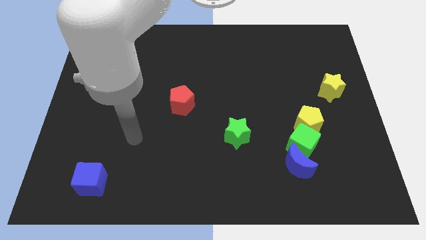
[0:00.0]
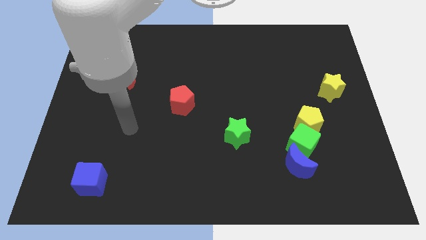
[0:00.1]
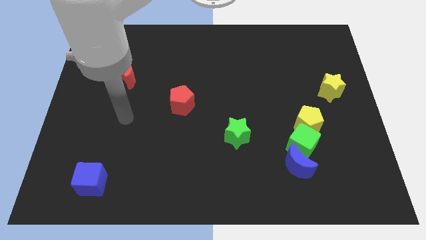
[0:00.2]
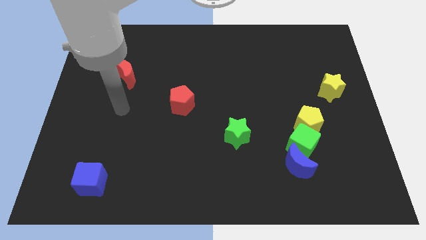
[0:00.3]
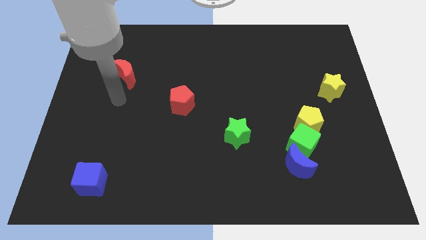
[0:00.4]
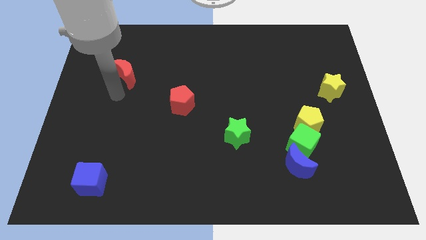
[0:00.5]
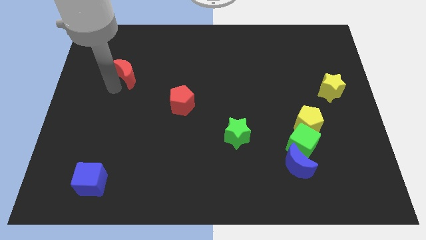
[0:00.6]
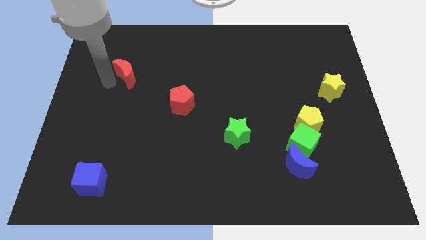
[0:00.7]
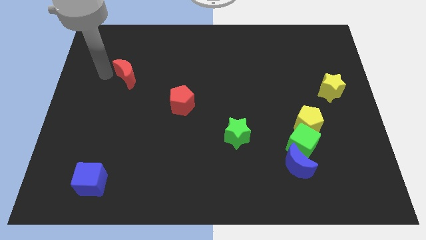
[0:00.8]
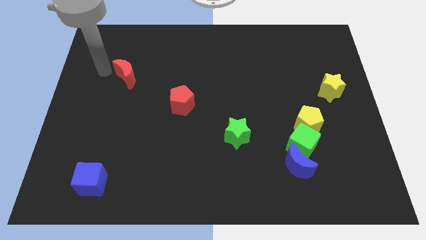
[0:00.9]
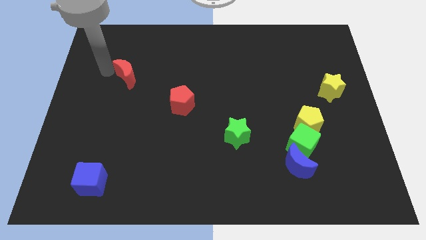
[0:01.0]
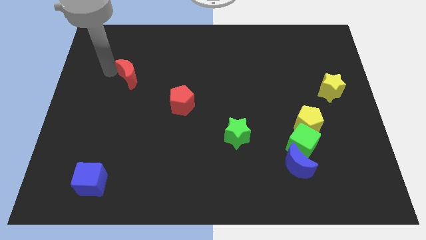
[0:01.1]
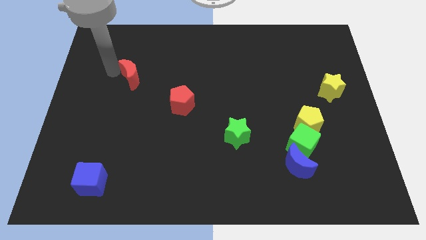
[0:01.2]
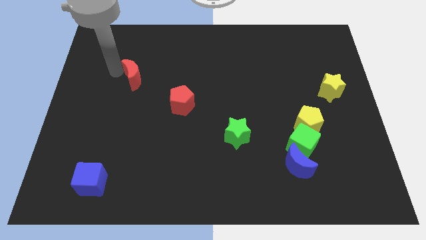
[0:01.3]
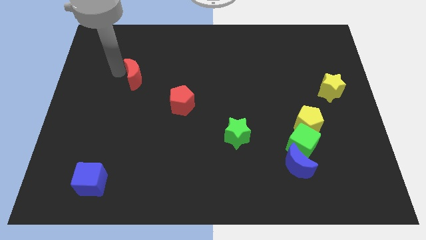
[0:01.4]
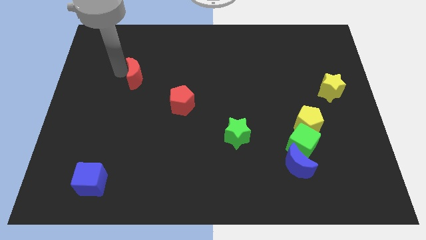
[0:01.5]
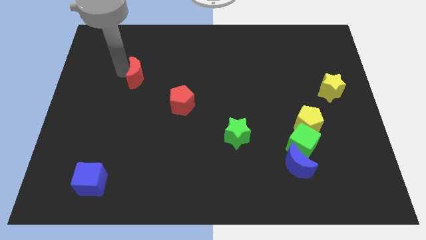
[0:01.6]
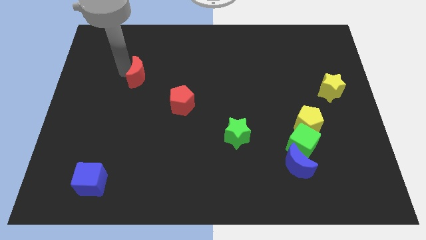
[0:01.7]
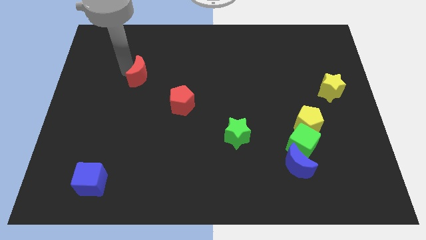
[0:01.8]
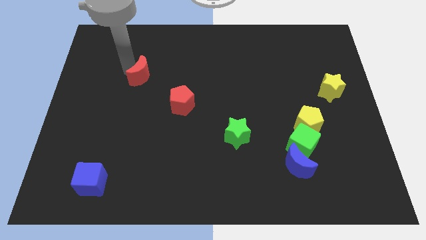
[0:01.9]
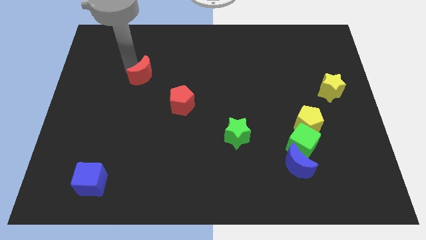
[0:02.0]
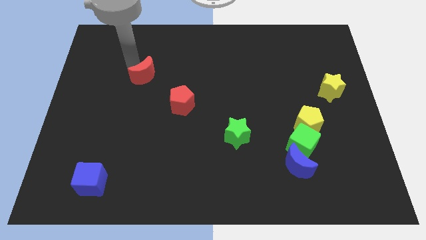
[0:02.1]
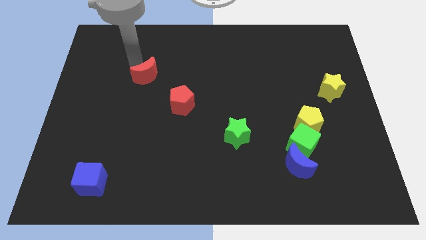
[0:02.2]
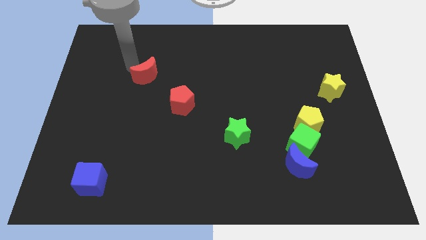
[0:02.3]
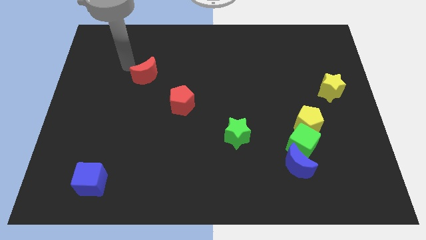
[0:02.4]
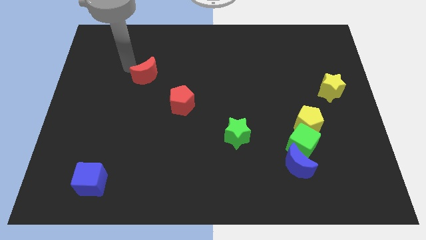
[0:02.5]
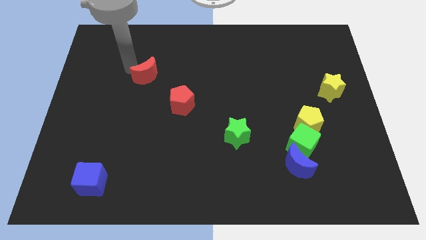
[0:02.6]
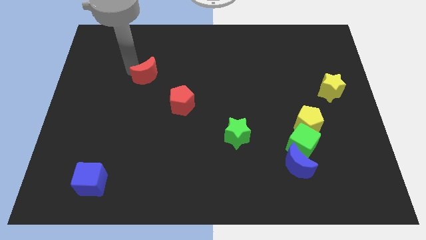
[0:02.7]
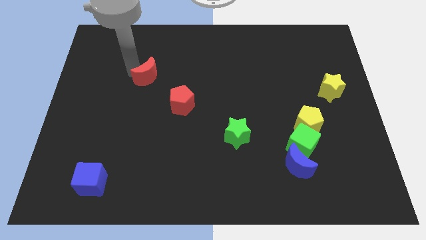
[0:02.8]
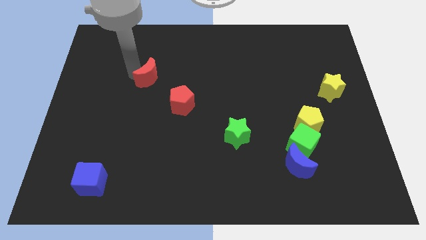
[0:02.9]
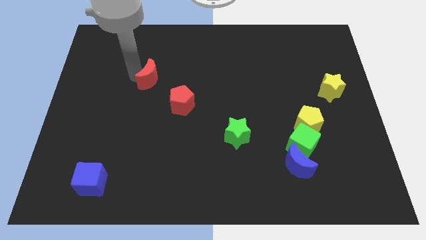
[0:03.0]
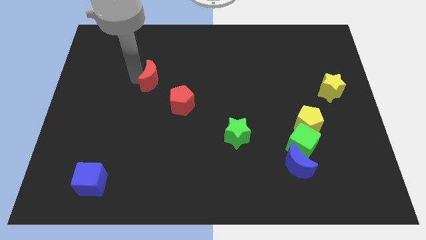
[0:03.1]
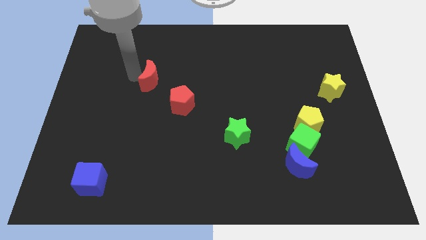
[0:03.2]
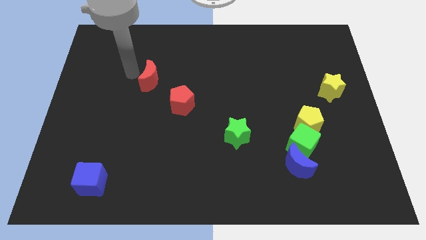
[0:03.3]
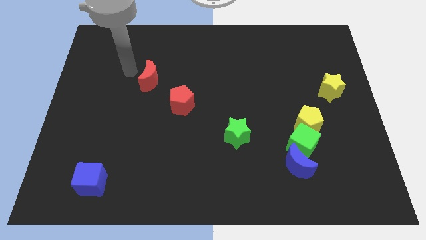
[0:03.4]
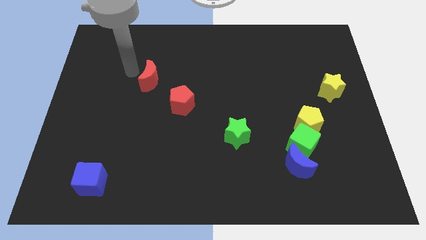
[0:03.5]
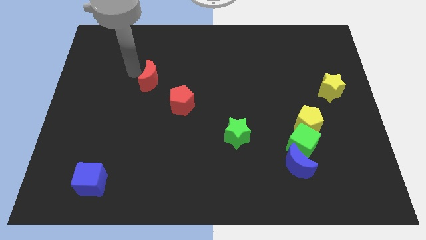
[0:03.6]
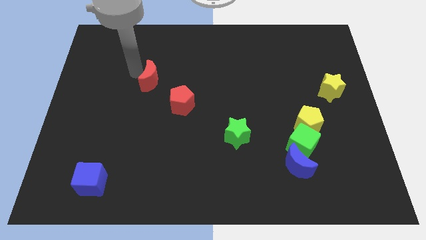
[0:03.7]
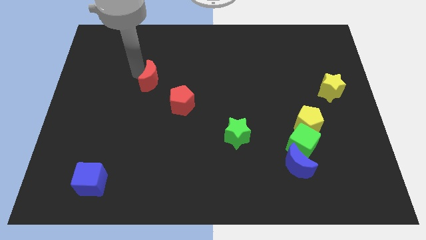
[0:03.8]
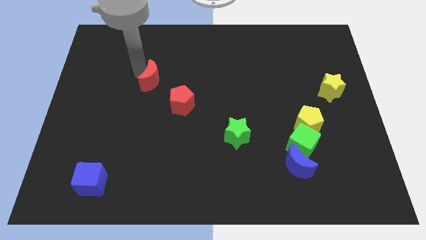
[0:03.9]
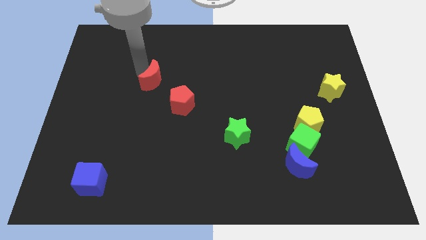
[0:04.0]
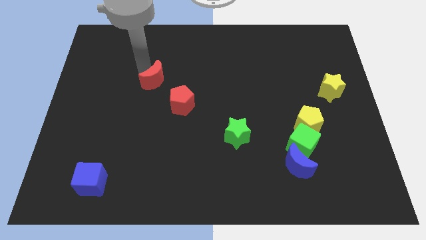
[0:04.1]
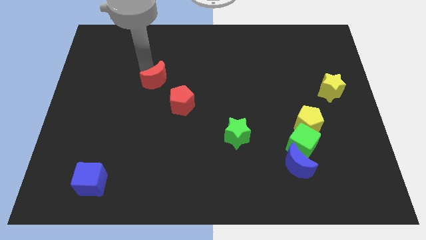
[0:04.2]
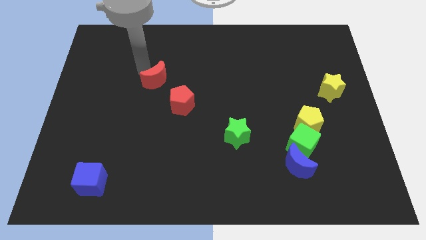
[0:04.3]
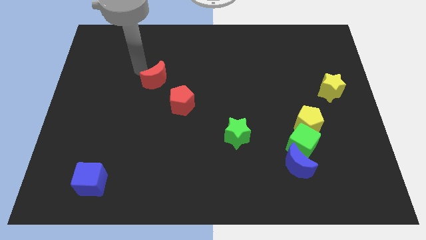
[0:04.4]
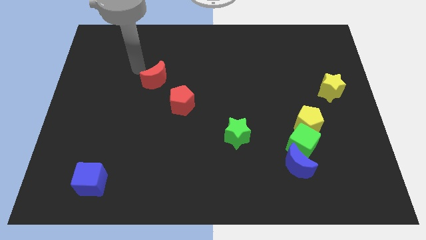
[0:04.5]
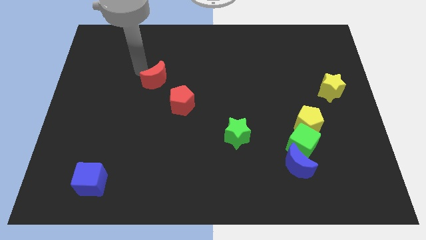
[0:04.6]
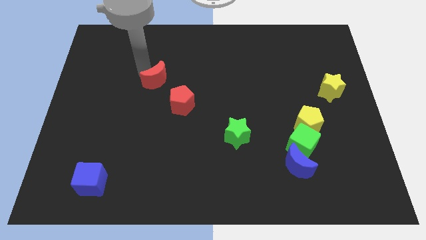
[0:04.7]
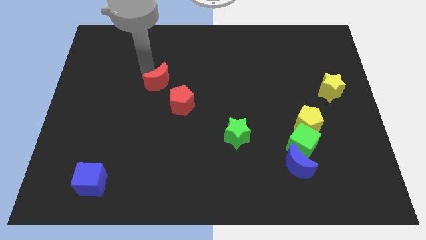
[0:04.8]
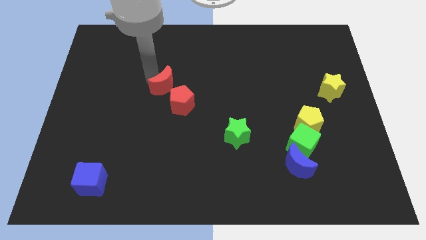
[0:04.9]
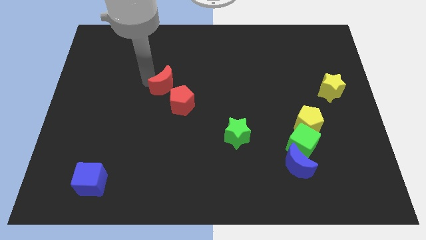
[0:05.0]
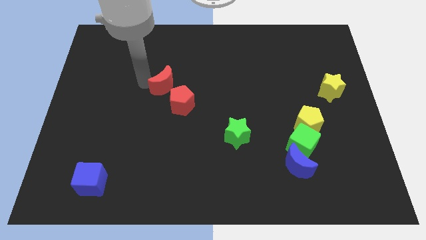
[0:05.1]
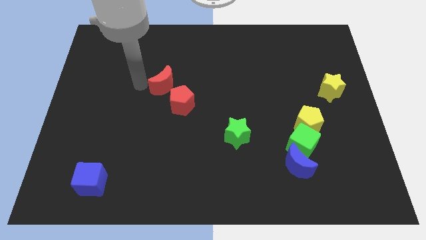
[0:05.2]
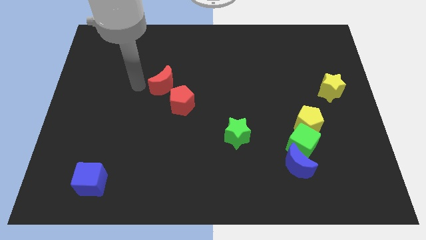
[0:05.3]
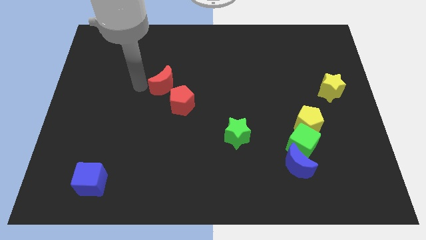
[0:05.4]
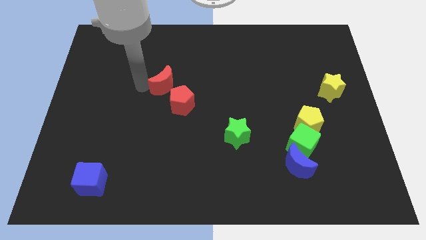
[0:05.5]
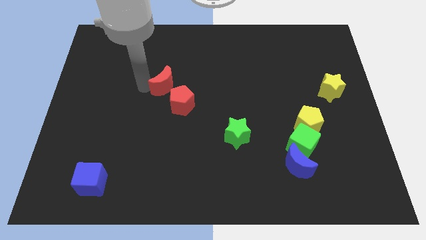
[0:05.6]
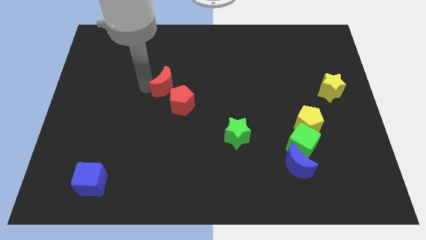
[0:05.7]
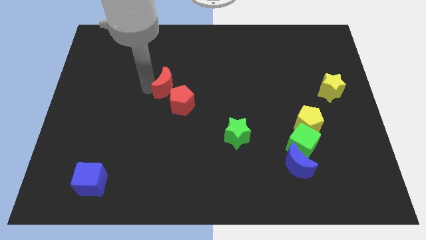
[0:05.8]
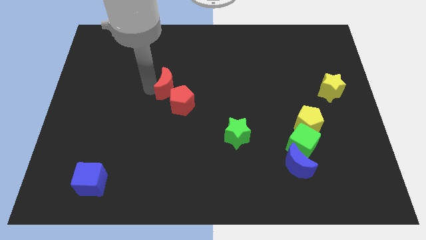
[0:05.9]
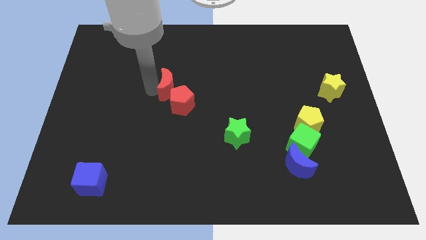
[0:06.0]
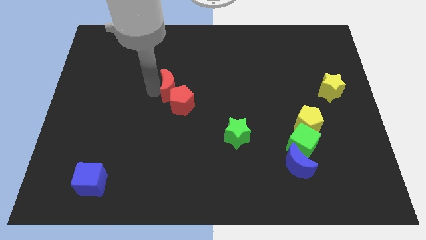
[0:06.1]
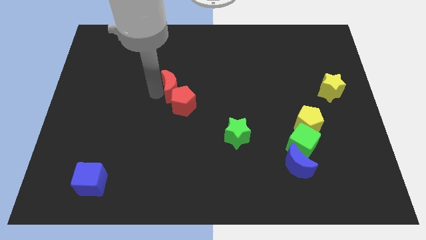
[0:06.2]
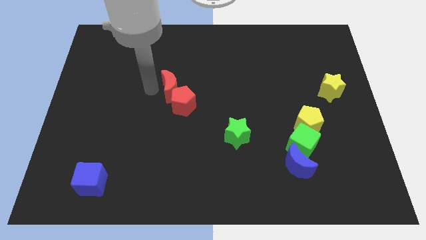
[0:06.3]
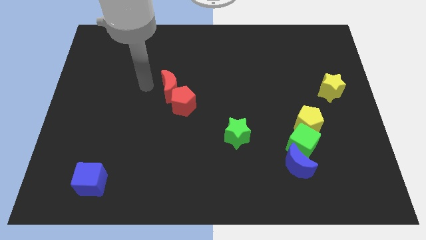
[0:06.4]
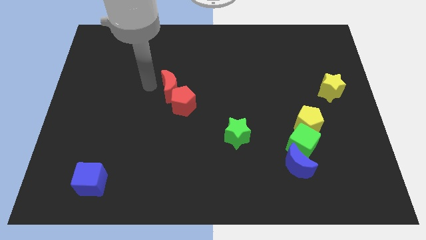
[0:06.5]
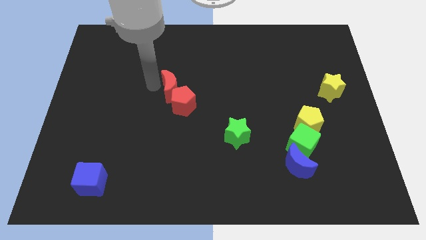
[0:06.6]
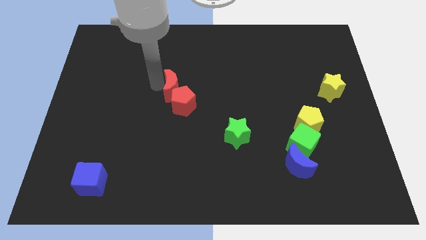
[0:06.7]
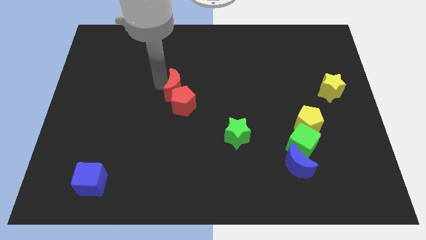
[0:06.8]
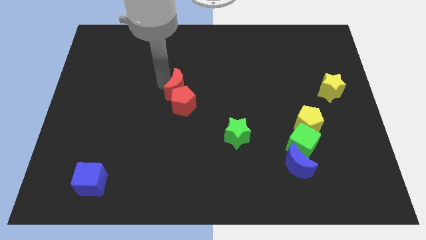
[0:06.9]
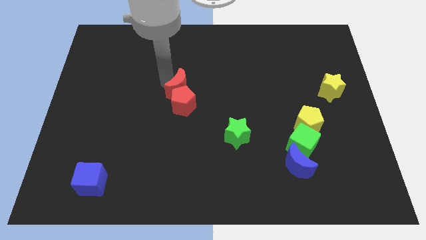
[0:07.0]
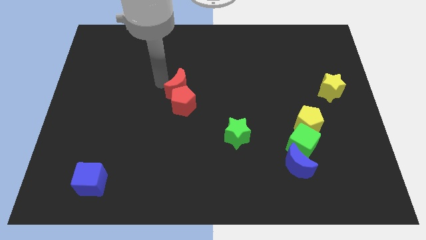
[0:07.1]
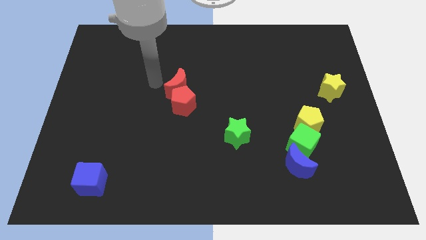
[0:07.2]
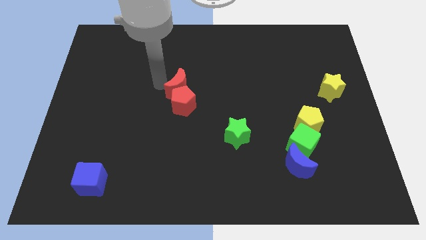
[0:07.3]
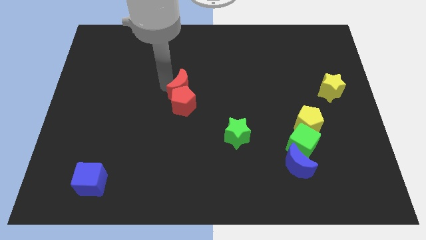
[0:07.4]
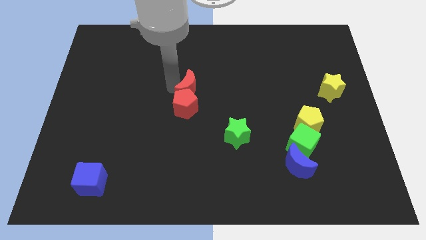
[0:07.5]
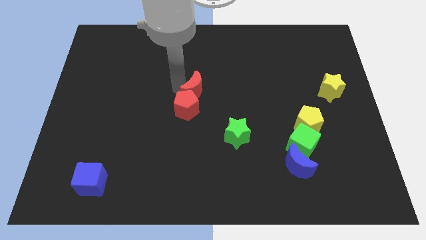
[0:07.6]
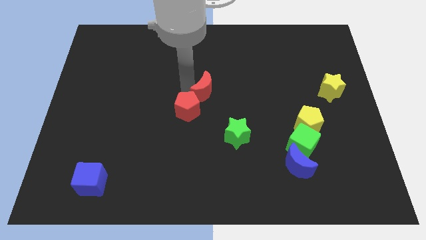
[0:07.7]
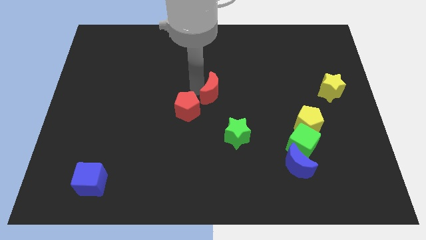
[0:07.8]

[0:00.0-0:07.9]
move the red moon right of the red pentagon

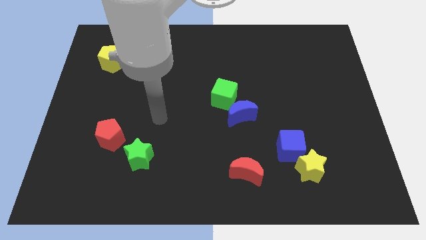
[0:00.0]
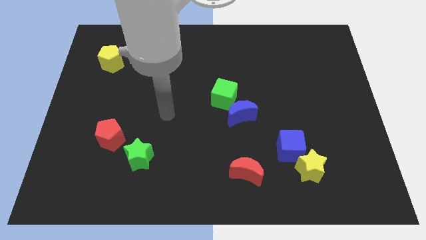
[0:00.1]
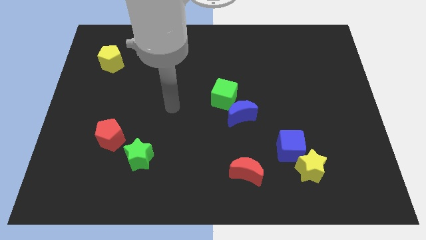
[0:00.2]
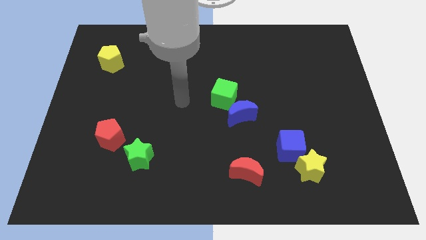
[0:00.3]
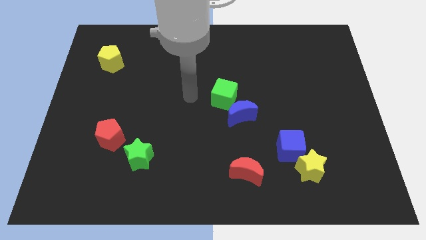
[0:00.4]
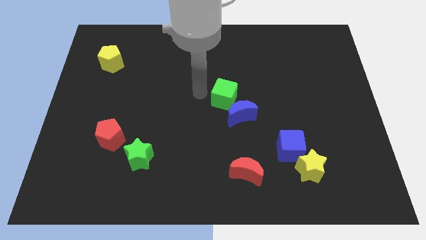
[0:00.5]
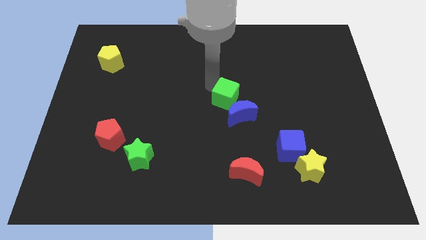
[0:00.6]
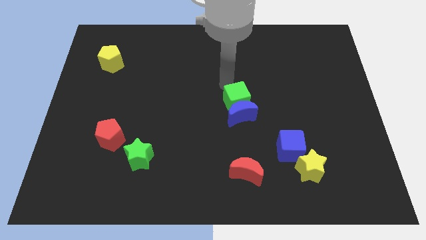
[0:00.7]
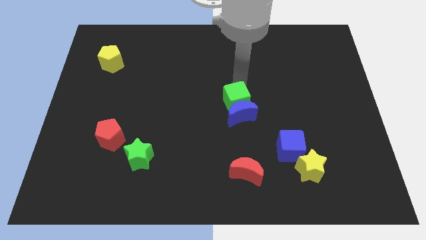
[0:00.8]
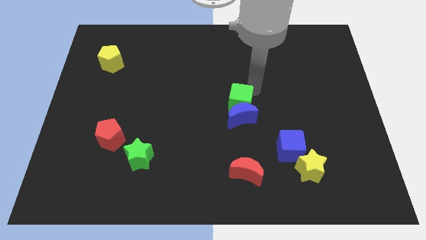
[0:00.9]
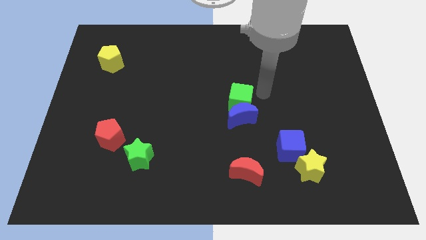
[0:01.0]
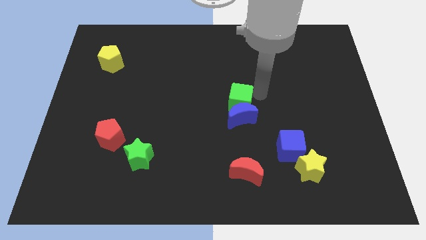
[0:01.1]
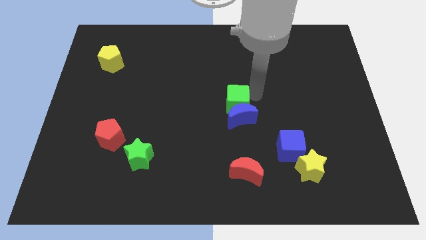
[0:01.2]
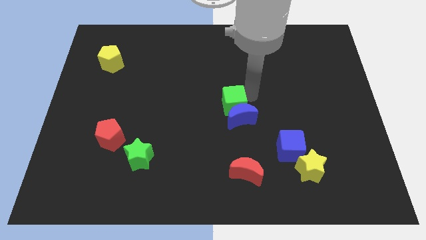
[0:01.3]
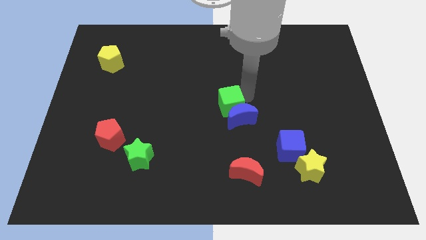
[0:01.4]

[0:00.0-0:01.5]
put the green cube to the left of the blue moon
